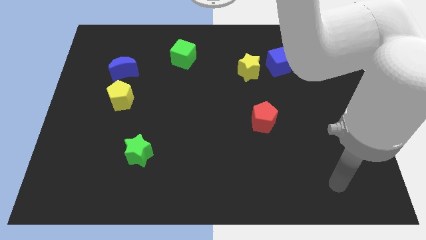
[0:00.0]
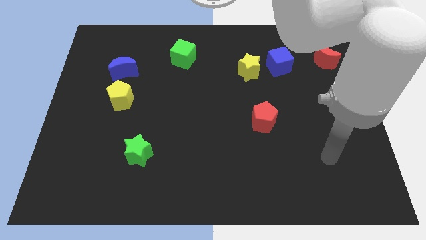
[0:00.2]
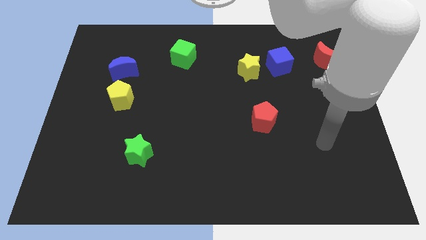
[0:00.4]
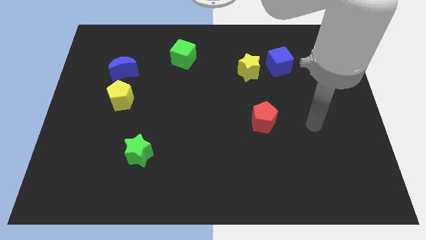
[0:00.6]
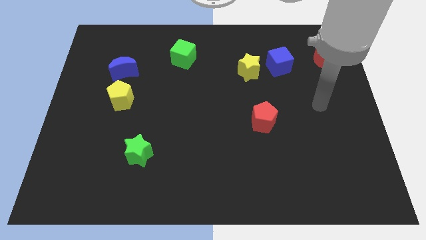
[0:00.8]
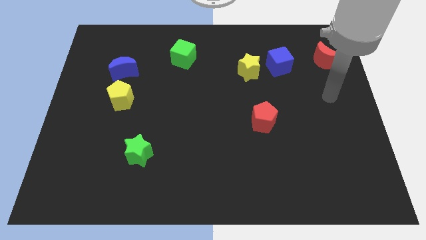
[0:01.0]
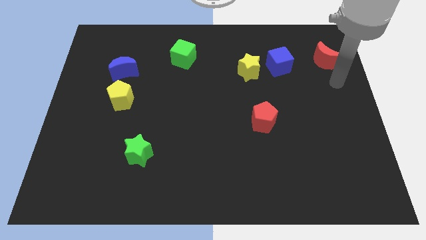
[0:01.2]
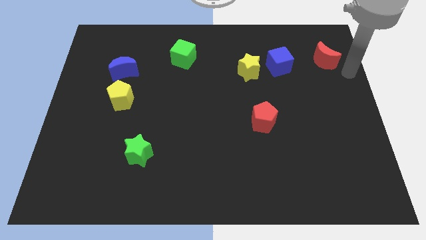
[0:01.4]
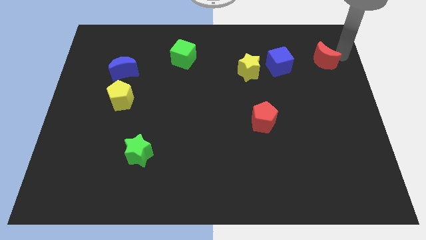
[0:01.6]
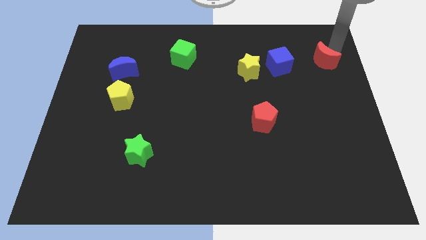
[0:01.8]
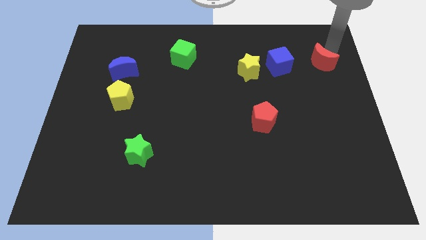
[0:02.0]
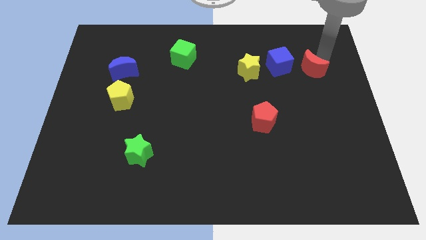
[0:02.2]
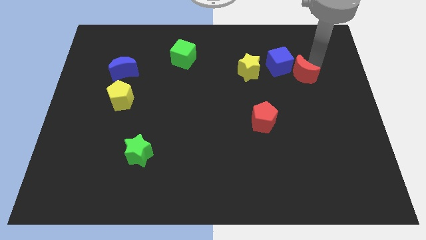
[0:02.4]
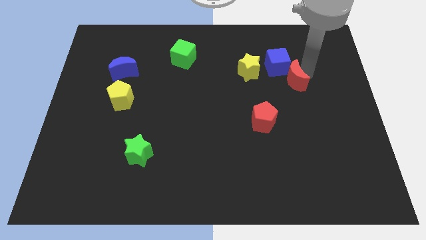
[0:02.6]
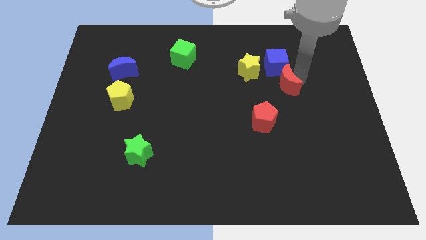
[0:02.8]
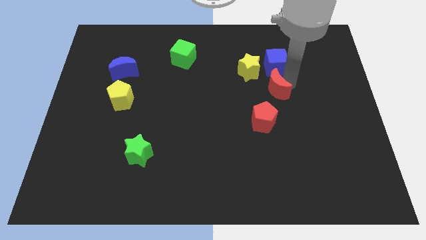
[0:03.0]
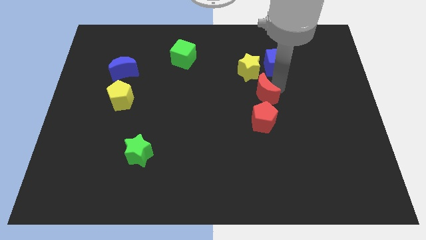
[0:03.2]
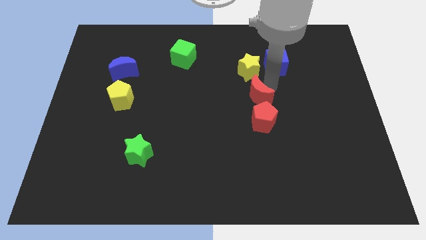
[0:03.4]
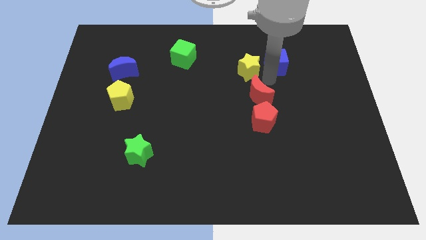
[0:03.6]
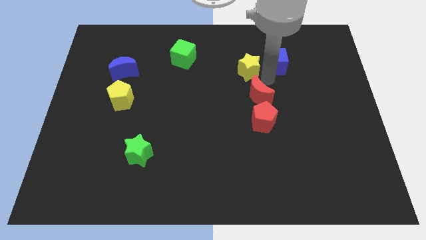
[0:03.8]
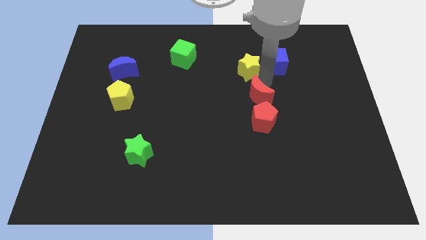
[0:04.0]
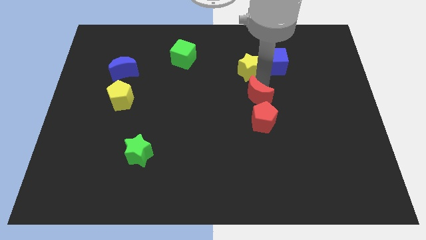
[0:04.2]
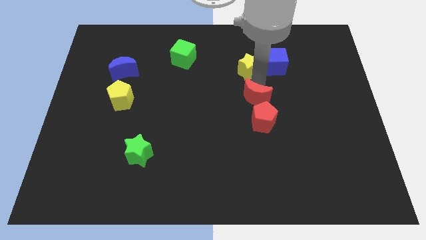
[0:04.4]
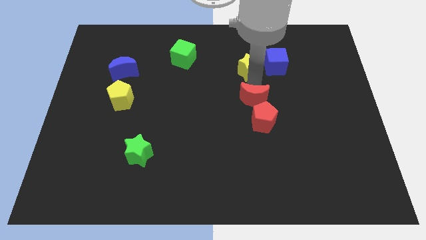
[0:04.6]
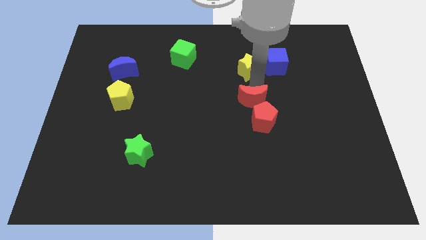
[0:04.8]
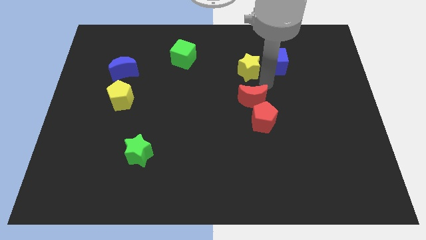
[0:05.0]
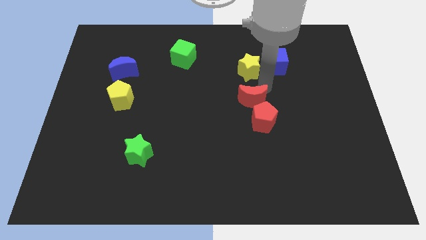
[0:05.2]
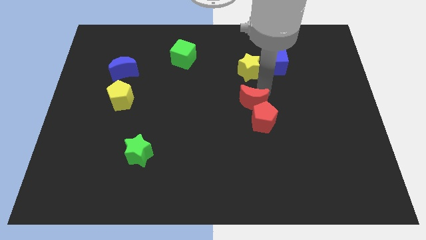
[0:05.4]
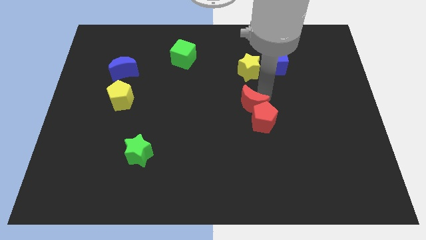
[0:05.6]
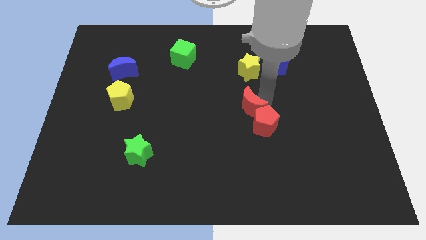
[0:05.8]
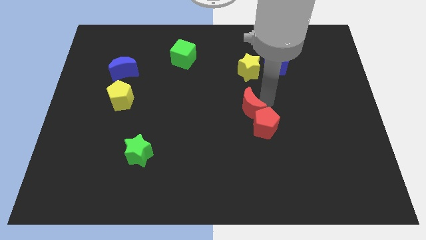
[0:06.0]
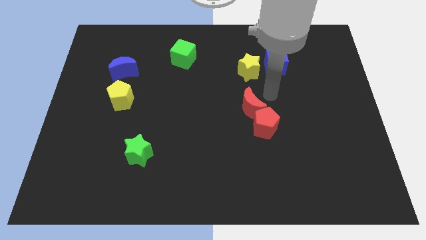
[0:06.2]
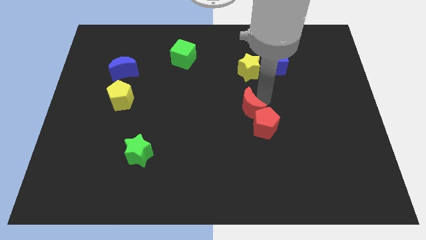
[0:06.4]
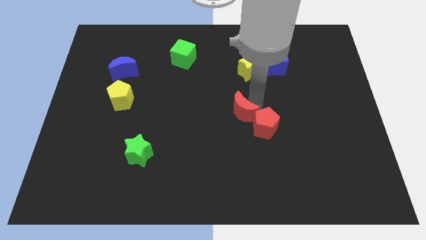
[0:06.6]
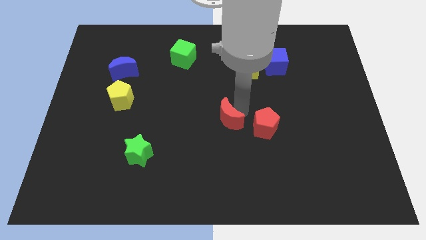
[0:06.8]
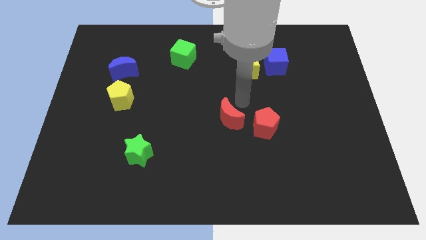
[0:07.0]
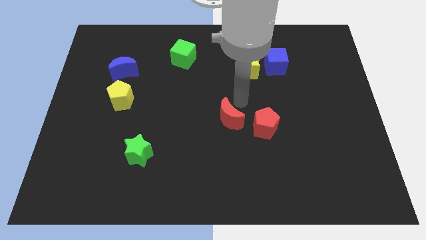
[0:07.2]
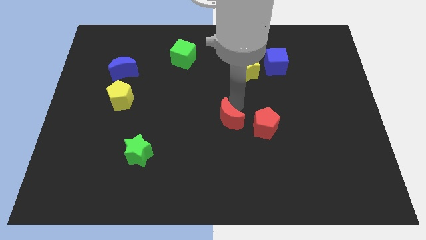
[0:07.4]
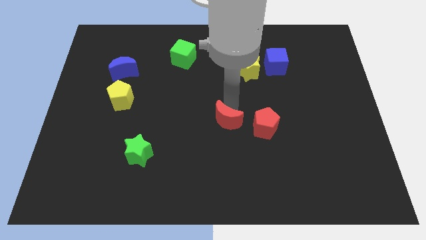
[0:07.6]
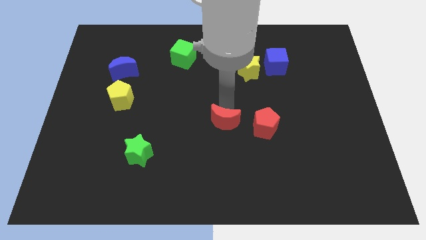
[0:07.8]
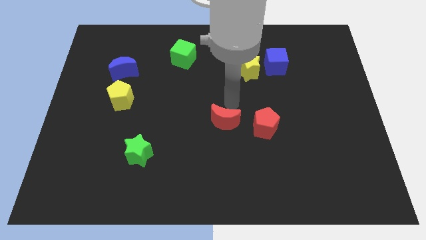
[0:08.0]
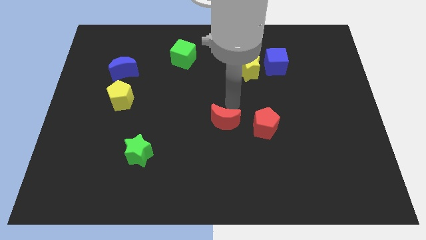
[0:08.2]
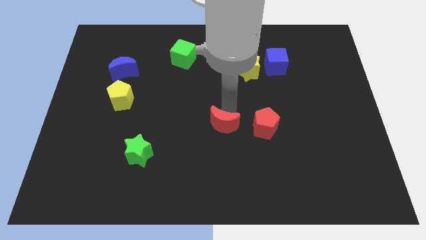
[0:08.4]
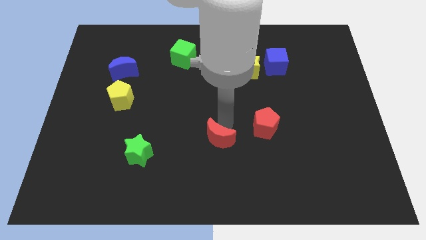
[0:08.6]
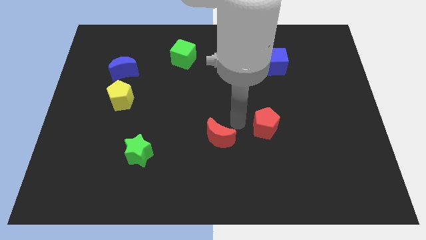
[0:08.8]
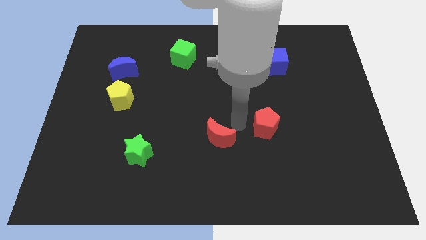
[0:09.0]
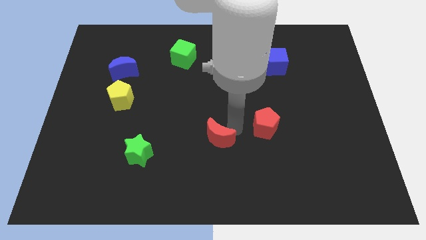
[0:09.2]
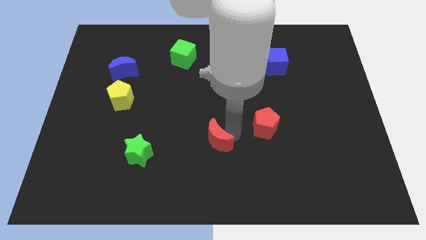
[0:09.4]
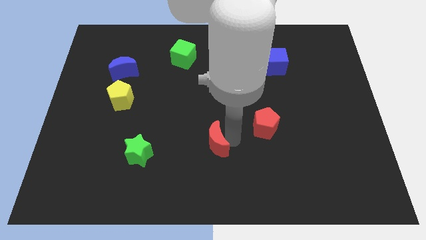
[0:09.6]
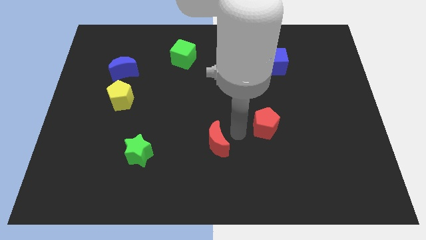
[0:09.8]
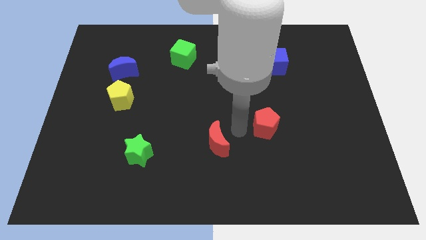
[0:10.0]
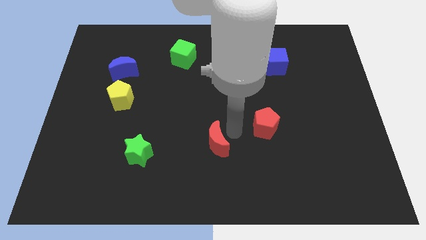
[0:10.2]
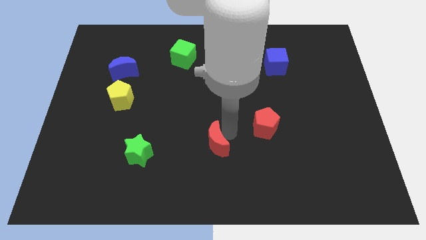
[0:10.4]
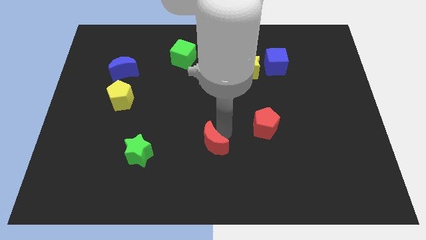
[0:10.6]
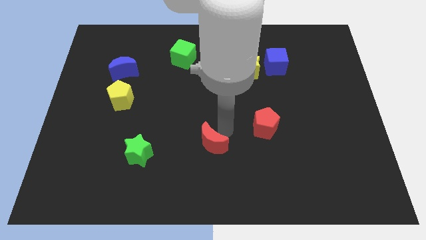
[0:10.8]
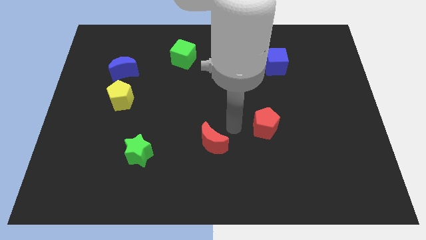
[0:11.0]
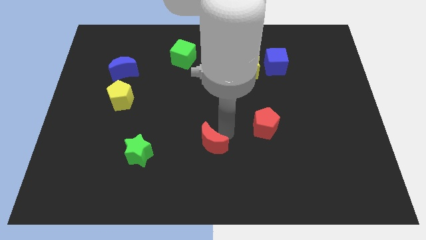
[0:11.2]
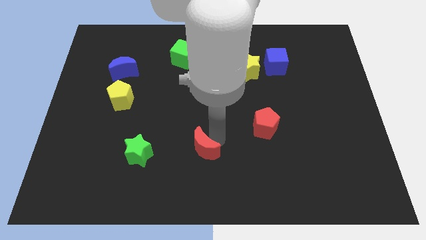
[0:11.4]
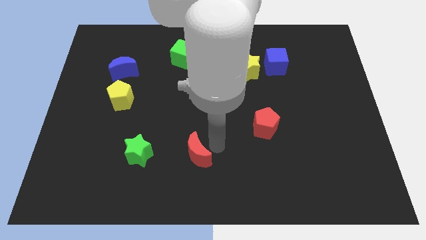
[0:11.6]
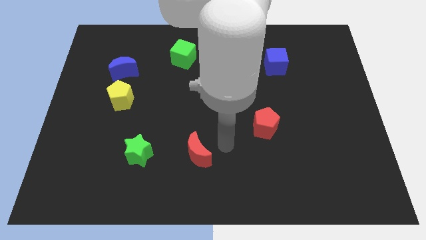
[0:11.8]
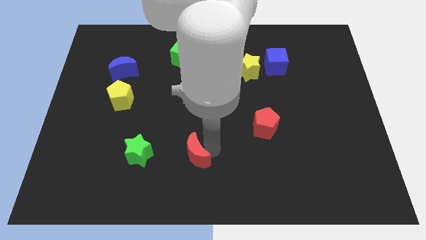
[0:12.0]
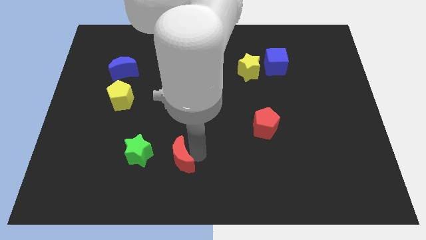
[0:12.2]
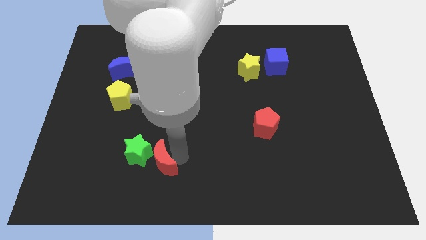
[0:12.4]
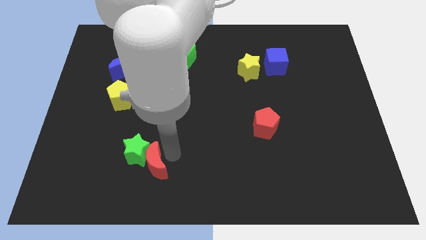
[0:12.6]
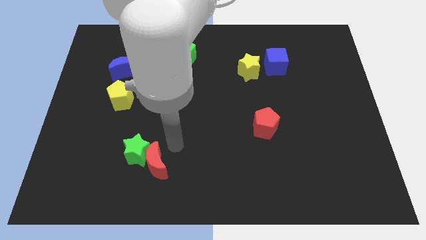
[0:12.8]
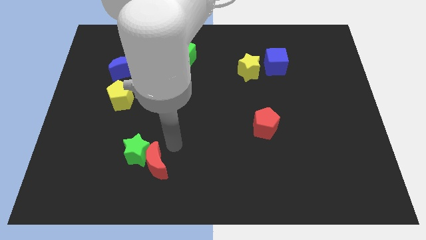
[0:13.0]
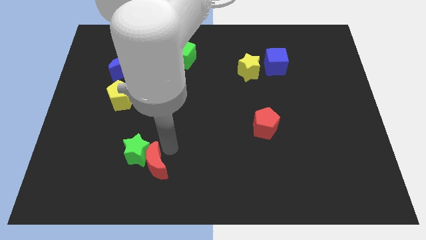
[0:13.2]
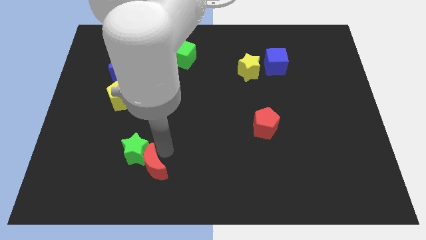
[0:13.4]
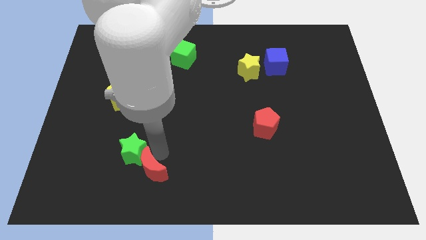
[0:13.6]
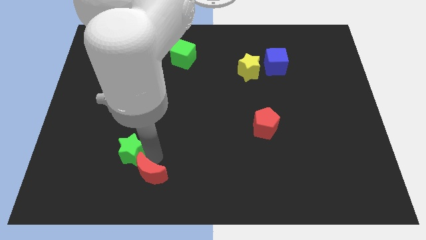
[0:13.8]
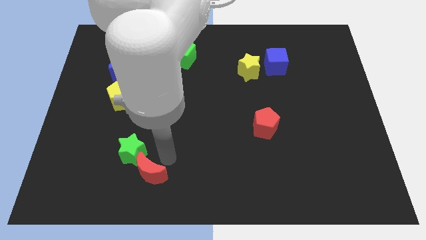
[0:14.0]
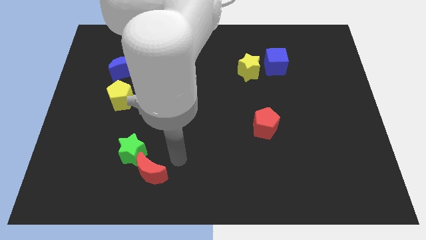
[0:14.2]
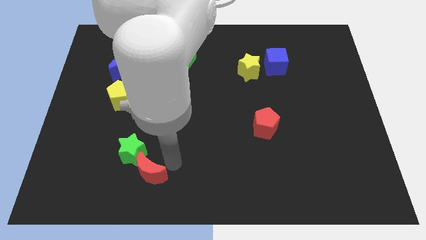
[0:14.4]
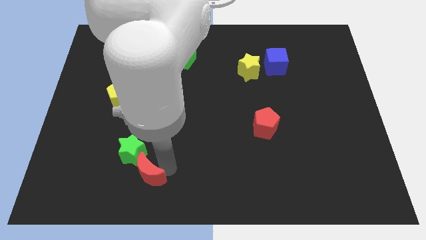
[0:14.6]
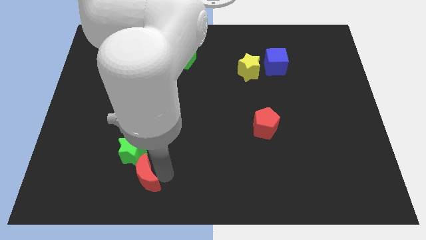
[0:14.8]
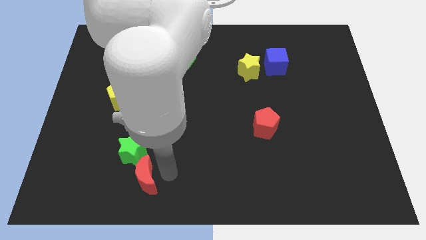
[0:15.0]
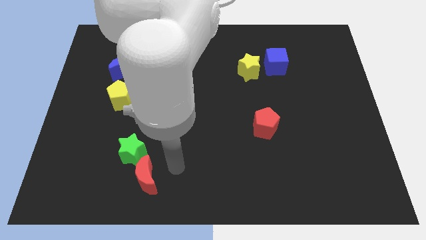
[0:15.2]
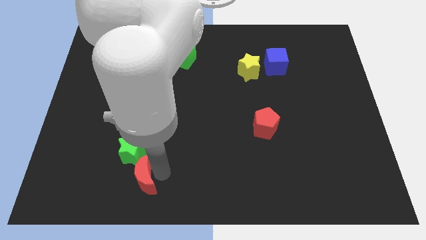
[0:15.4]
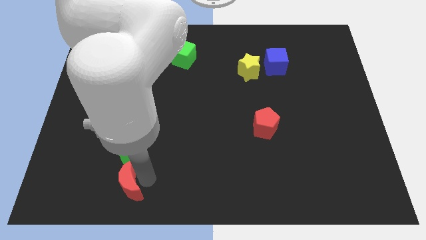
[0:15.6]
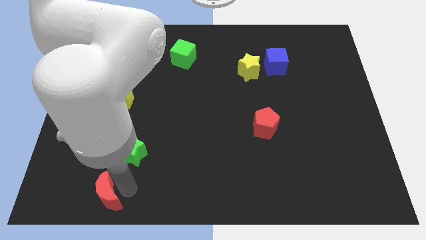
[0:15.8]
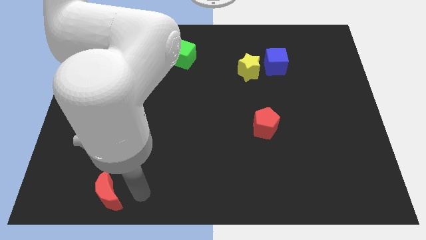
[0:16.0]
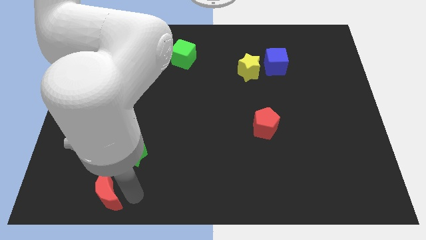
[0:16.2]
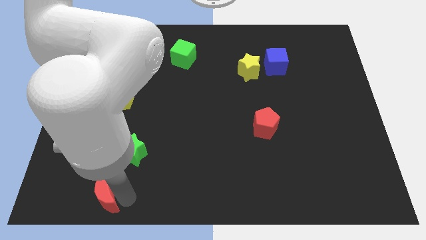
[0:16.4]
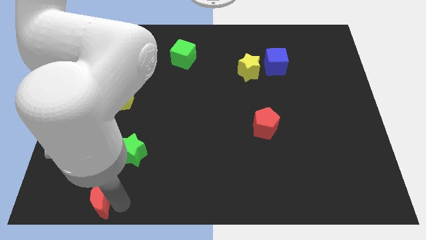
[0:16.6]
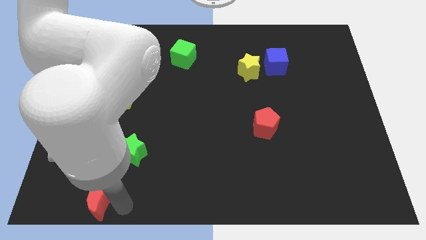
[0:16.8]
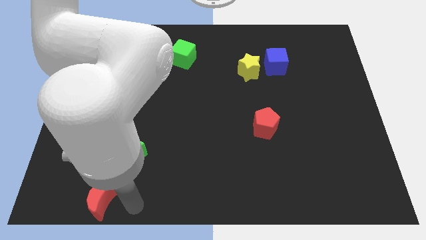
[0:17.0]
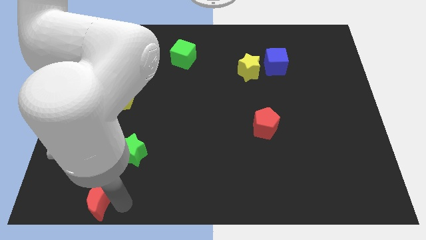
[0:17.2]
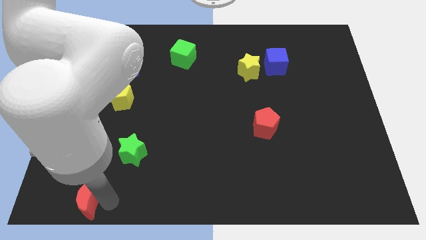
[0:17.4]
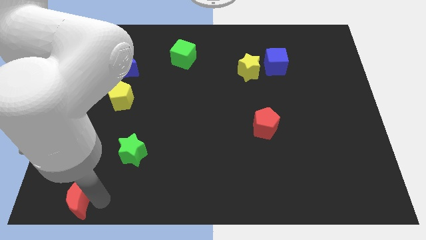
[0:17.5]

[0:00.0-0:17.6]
push the red moon to the bottom left of the board
